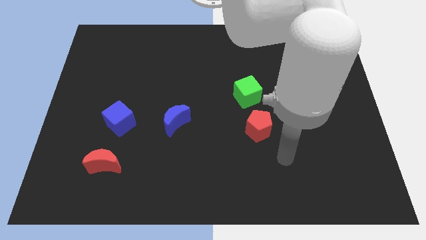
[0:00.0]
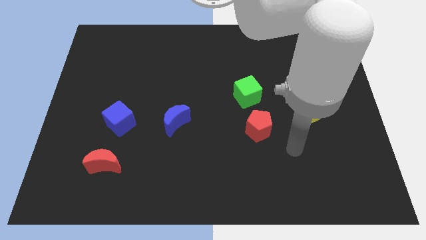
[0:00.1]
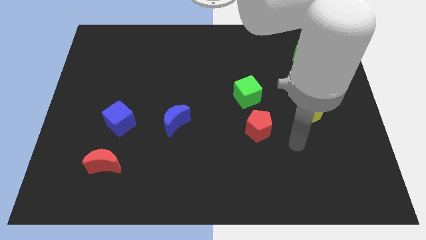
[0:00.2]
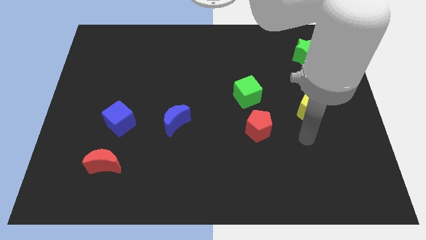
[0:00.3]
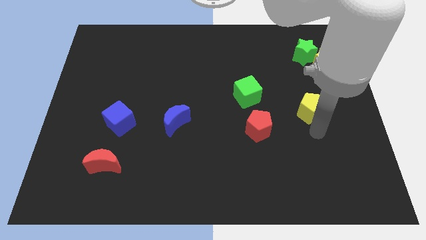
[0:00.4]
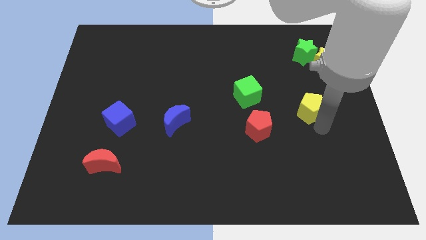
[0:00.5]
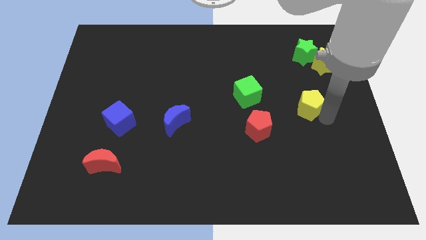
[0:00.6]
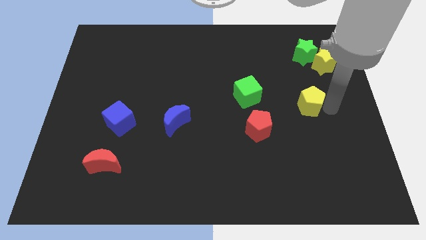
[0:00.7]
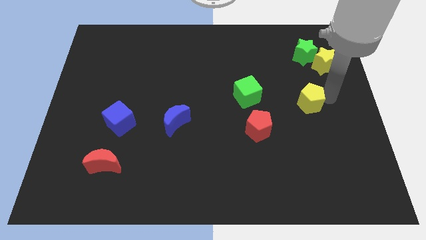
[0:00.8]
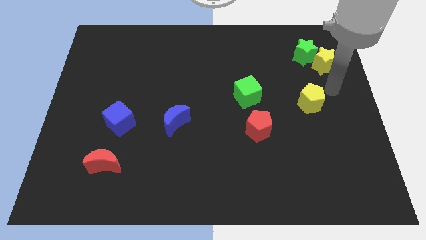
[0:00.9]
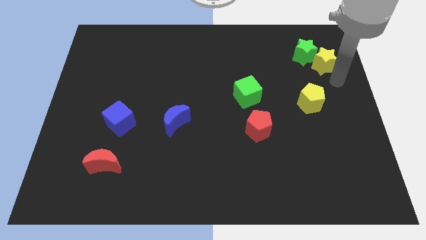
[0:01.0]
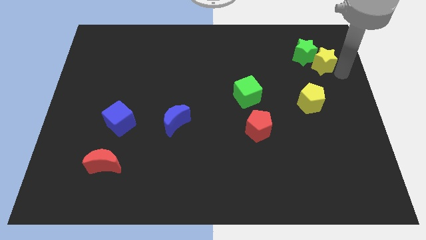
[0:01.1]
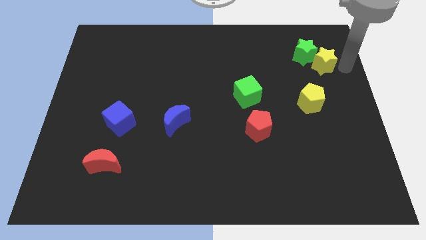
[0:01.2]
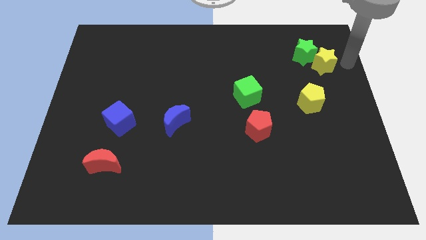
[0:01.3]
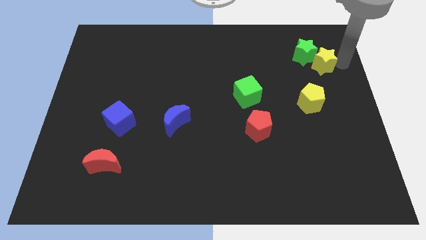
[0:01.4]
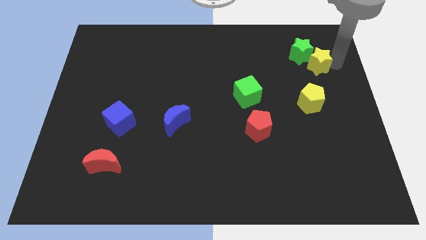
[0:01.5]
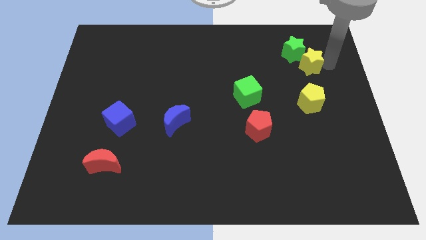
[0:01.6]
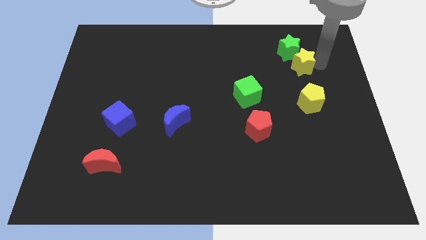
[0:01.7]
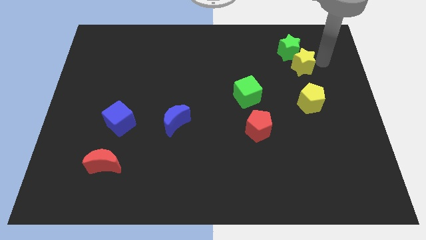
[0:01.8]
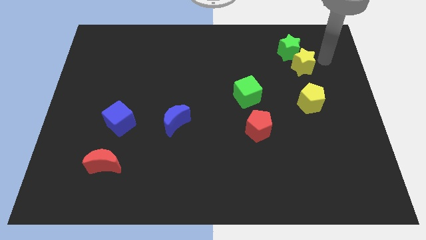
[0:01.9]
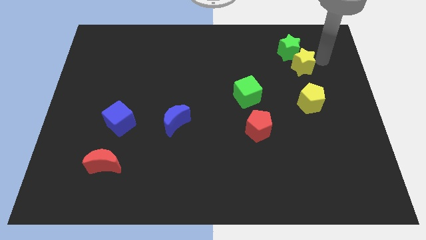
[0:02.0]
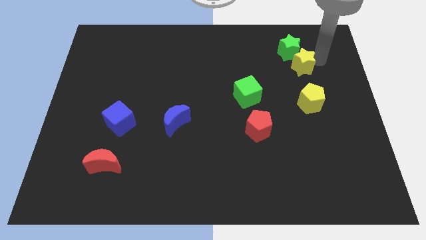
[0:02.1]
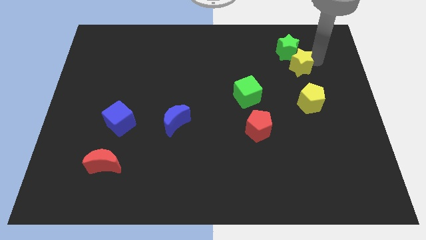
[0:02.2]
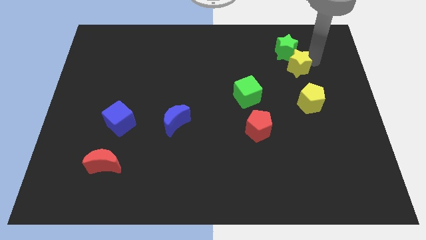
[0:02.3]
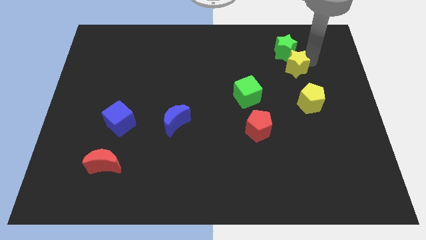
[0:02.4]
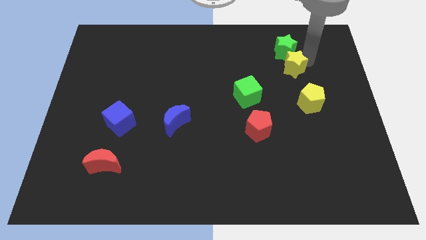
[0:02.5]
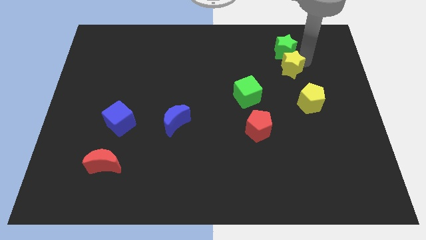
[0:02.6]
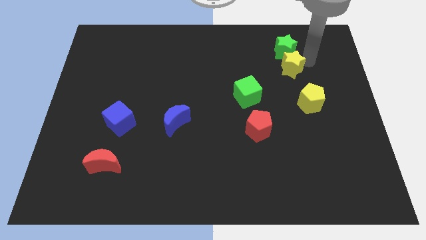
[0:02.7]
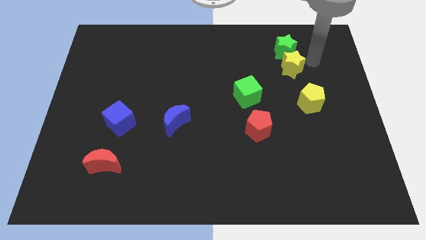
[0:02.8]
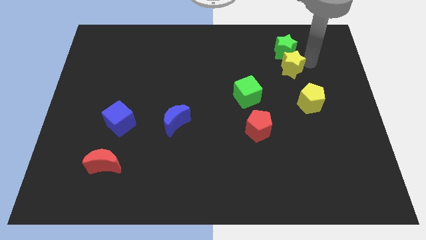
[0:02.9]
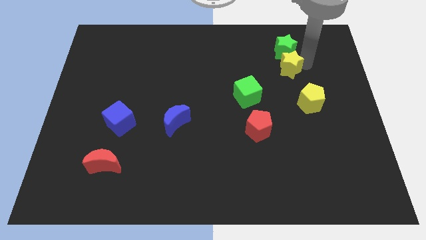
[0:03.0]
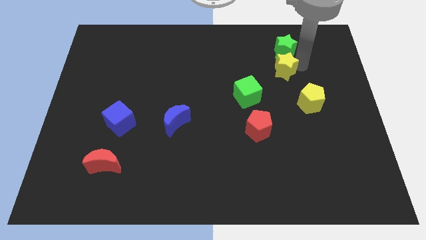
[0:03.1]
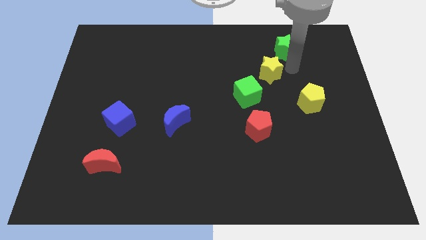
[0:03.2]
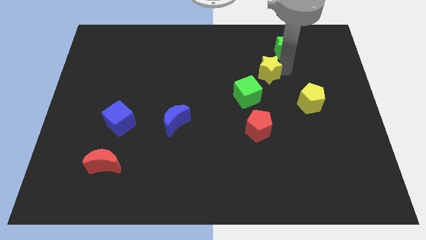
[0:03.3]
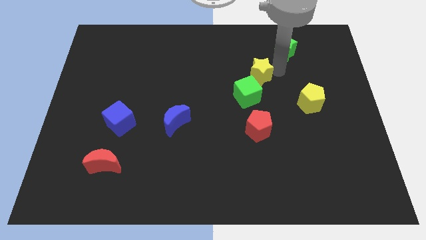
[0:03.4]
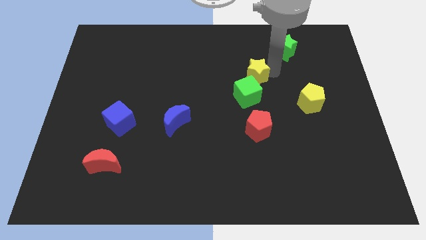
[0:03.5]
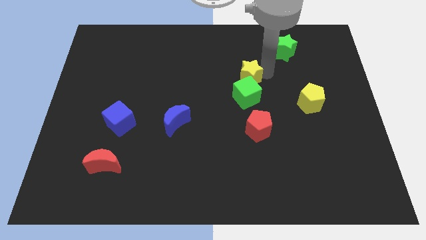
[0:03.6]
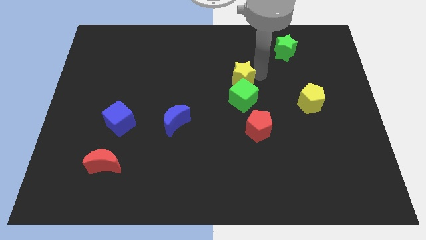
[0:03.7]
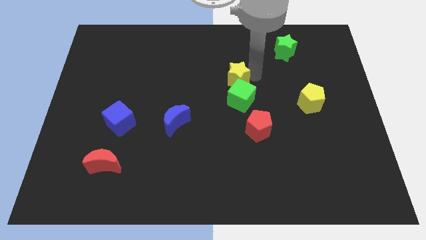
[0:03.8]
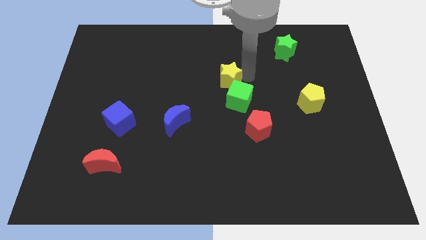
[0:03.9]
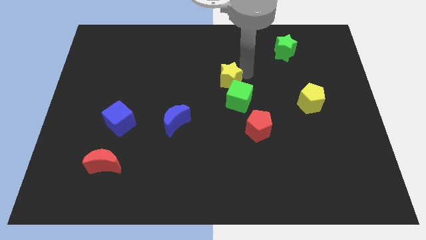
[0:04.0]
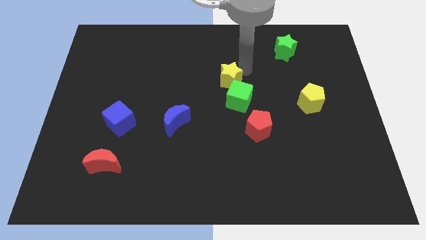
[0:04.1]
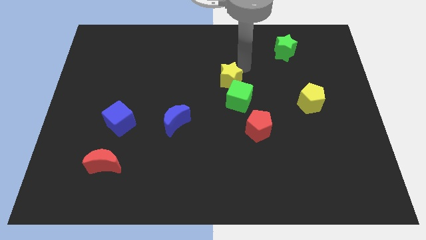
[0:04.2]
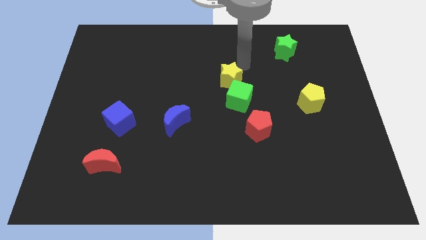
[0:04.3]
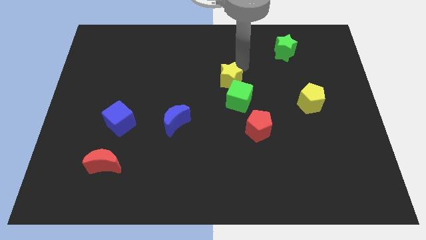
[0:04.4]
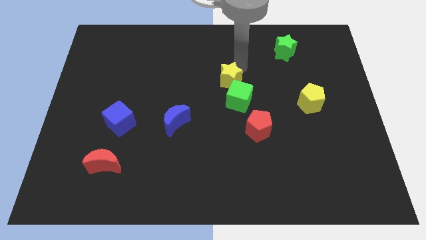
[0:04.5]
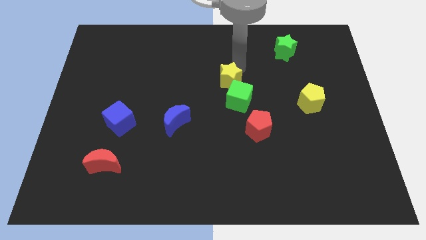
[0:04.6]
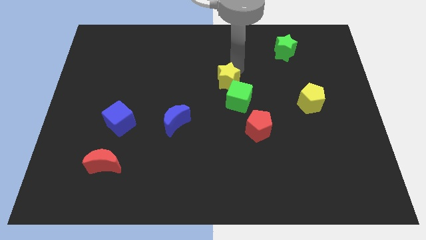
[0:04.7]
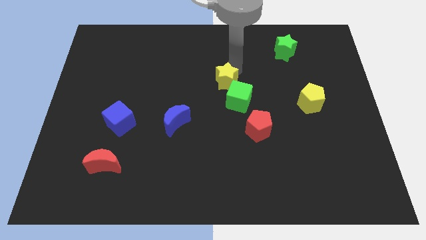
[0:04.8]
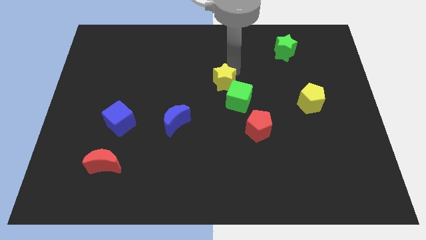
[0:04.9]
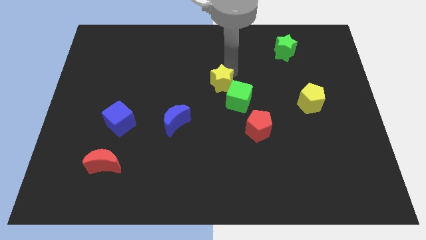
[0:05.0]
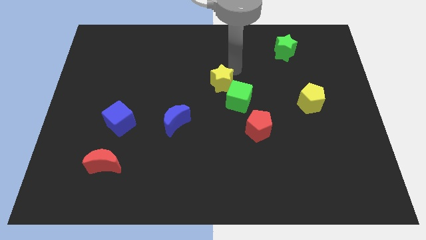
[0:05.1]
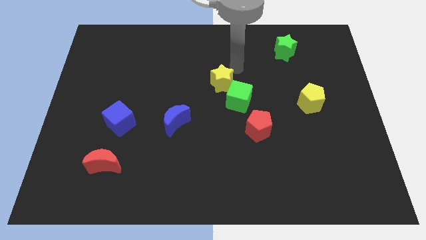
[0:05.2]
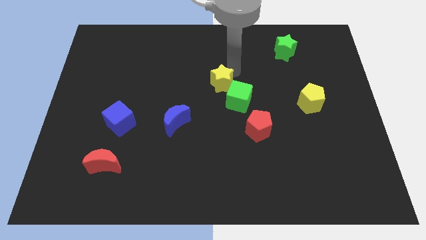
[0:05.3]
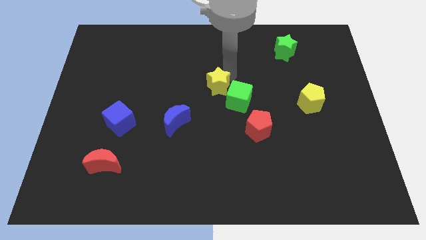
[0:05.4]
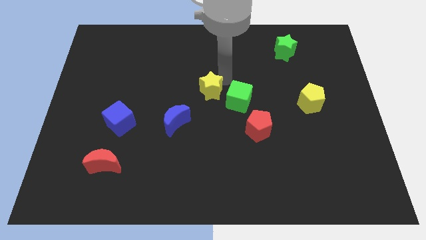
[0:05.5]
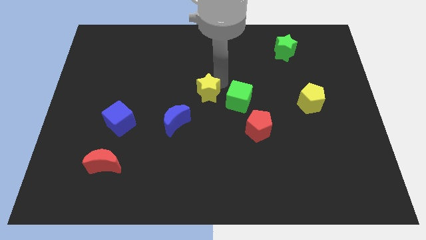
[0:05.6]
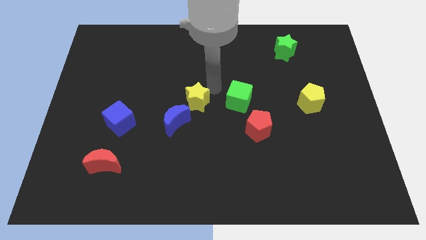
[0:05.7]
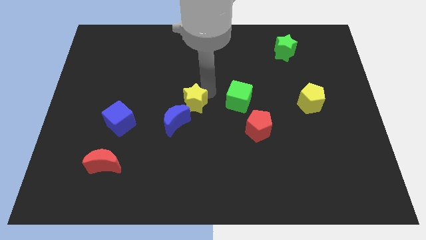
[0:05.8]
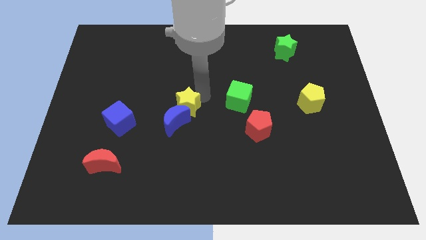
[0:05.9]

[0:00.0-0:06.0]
put the yellow star towards the blue moon

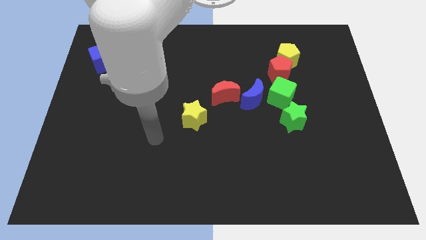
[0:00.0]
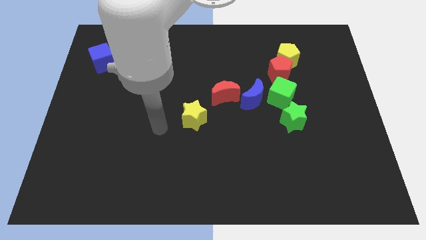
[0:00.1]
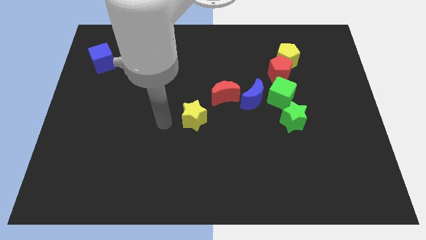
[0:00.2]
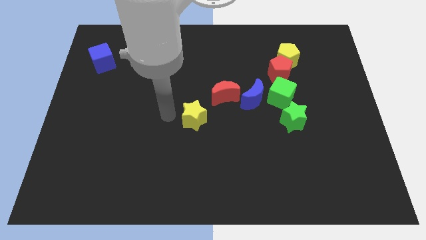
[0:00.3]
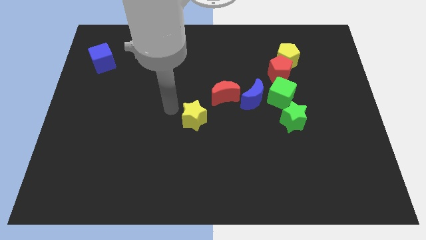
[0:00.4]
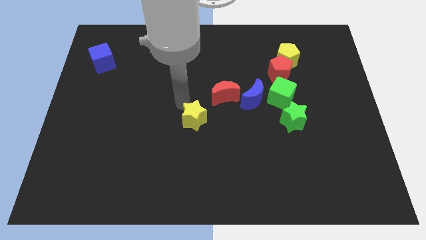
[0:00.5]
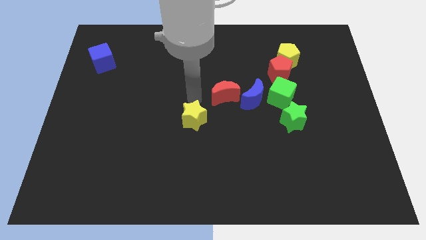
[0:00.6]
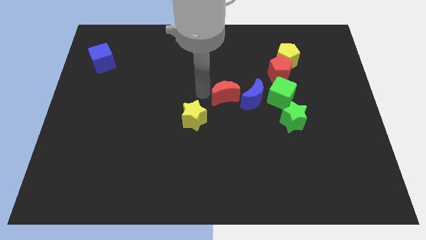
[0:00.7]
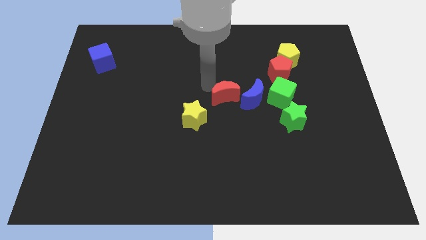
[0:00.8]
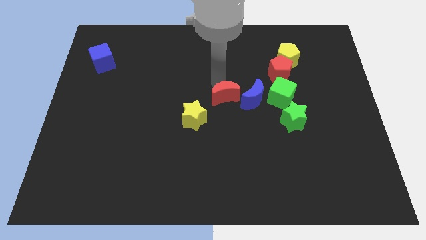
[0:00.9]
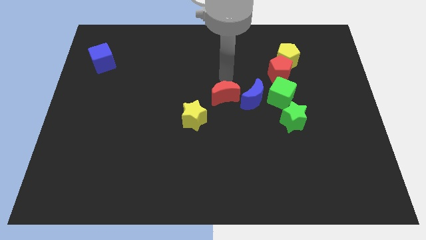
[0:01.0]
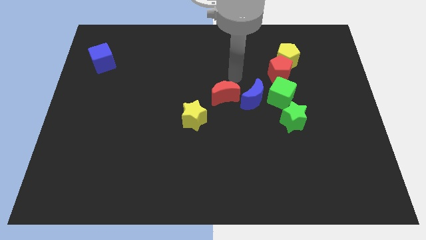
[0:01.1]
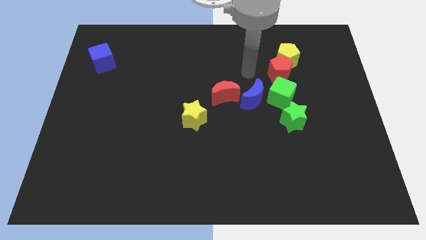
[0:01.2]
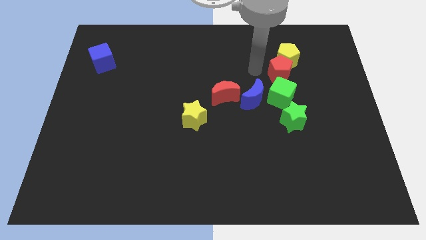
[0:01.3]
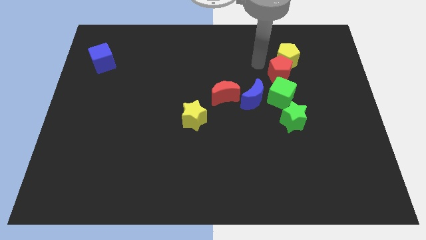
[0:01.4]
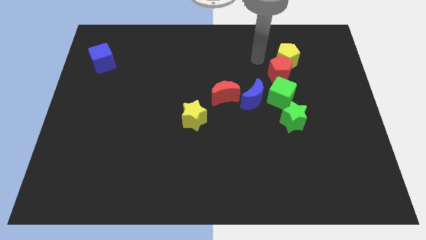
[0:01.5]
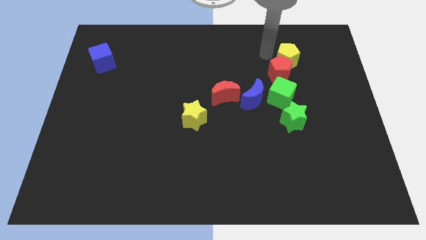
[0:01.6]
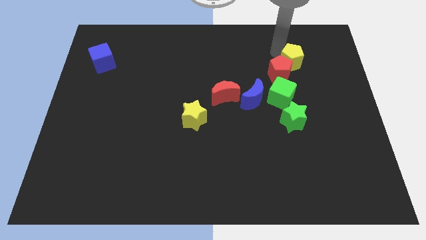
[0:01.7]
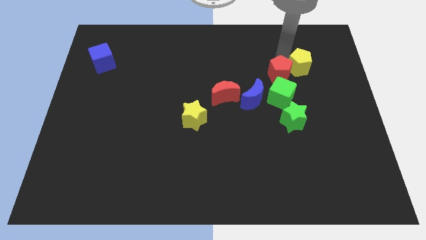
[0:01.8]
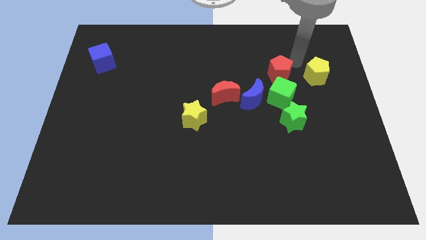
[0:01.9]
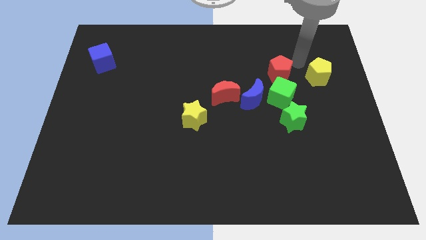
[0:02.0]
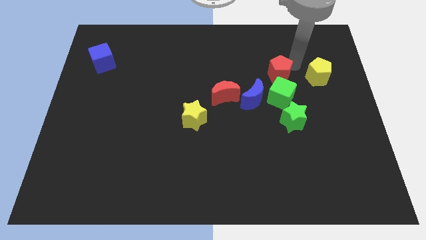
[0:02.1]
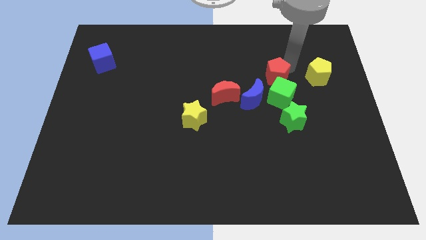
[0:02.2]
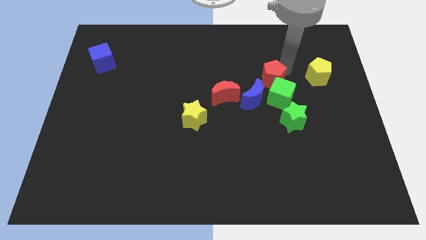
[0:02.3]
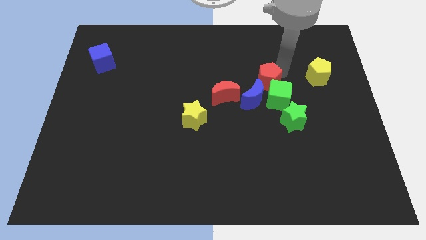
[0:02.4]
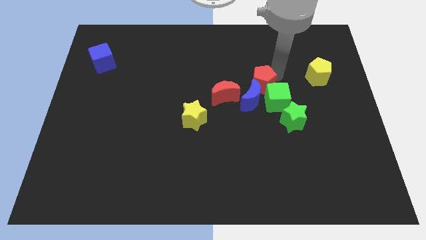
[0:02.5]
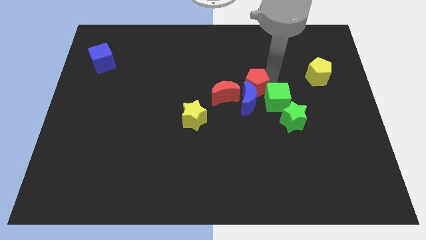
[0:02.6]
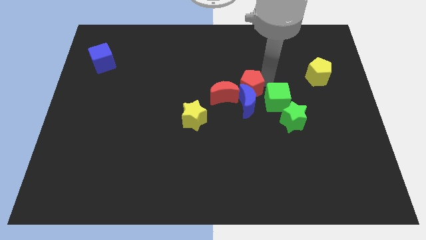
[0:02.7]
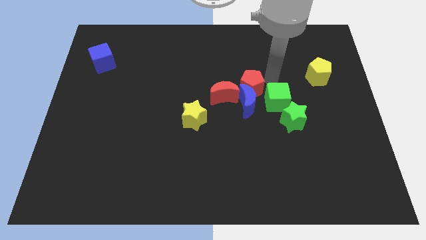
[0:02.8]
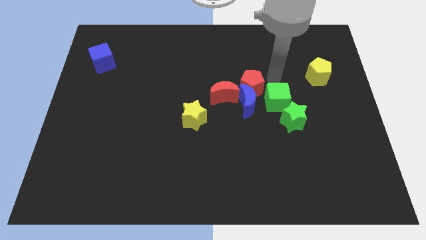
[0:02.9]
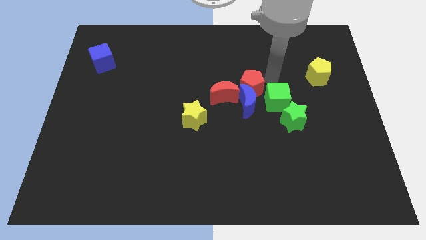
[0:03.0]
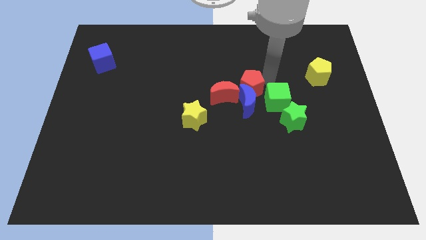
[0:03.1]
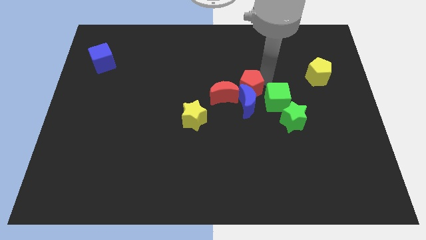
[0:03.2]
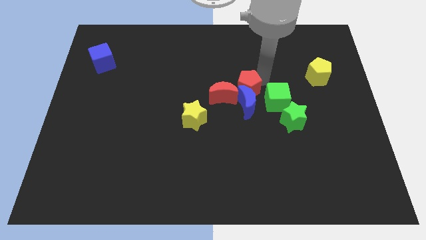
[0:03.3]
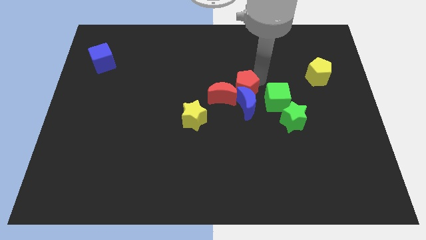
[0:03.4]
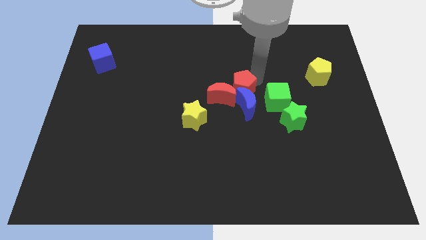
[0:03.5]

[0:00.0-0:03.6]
slide the red pentagon next to the red moon
